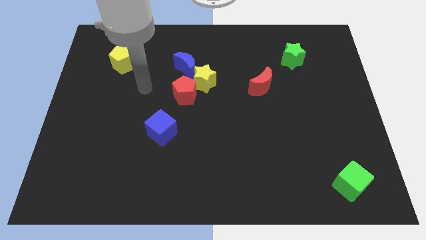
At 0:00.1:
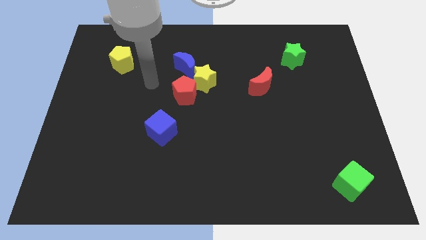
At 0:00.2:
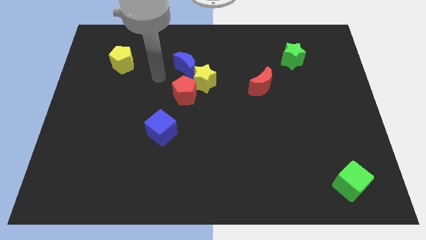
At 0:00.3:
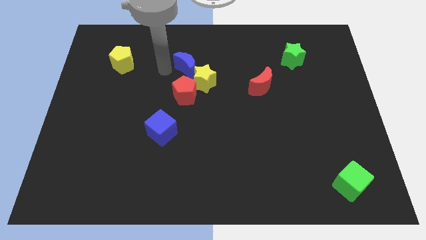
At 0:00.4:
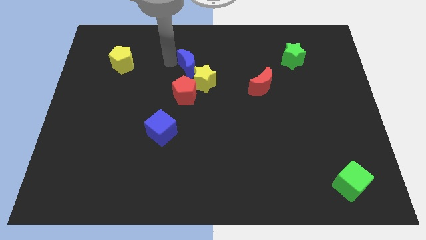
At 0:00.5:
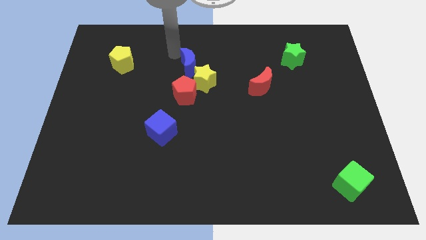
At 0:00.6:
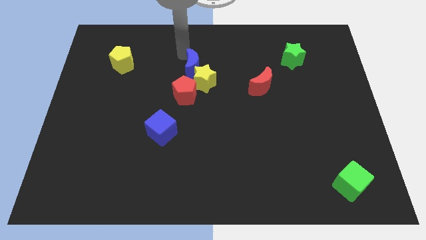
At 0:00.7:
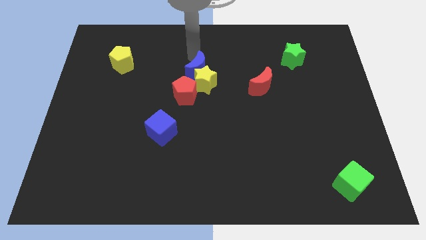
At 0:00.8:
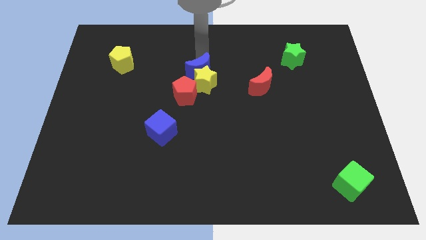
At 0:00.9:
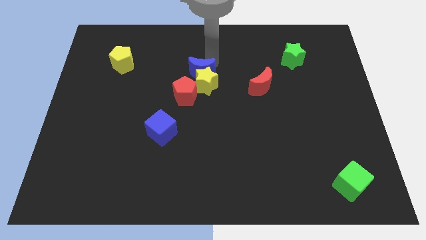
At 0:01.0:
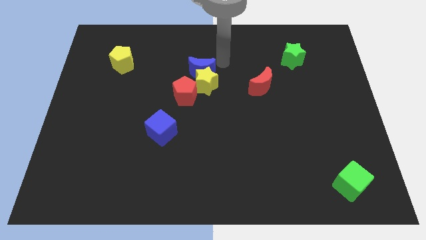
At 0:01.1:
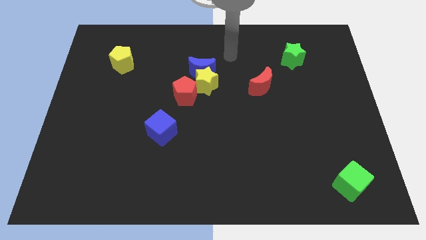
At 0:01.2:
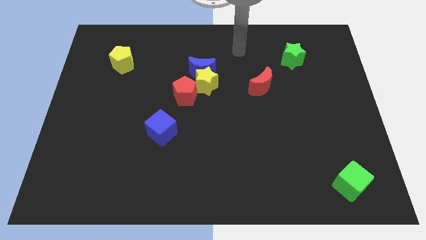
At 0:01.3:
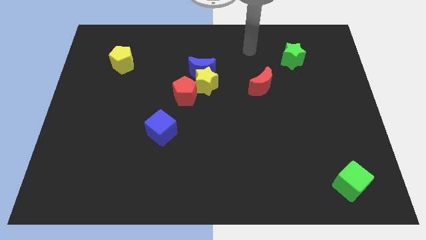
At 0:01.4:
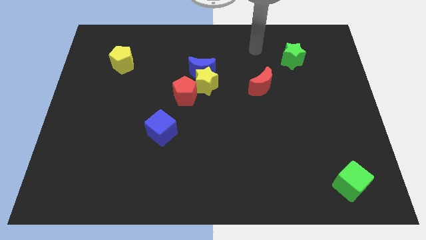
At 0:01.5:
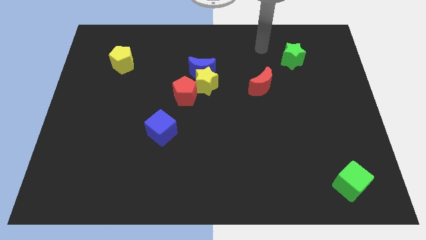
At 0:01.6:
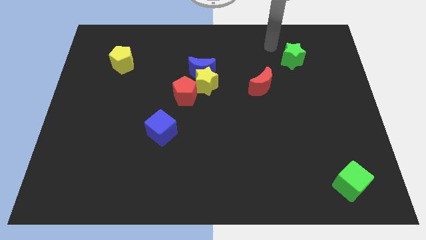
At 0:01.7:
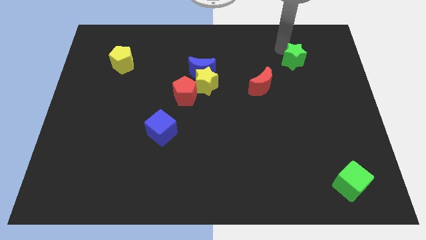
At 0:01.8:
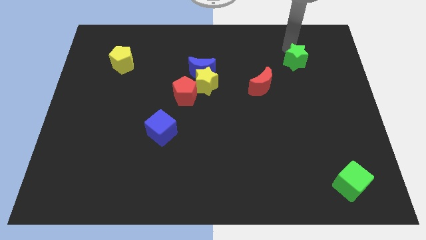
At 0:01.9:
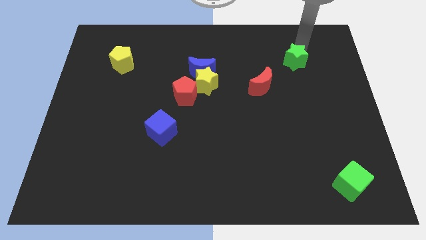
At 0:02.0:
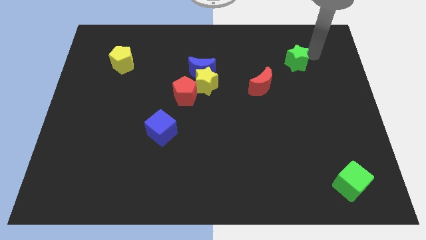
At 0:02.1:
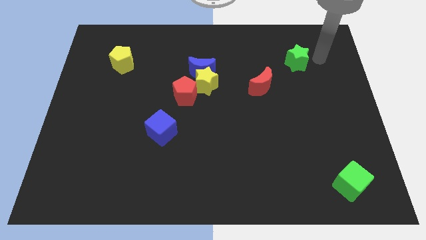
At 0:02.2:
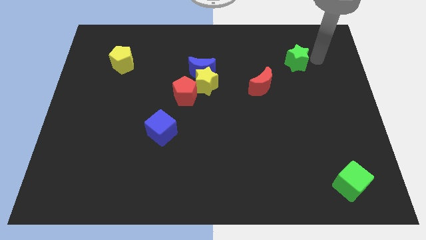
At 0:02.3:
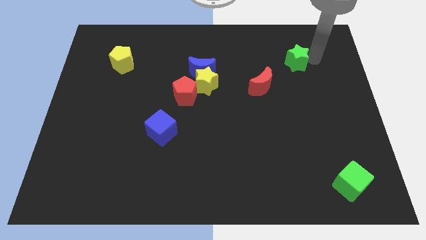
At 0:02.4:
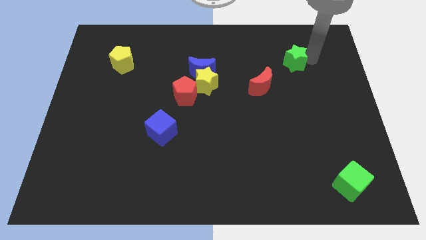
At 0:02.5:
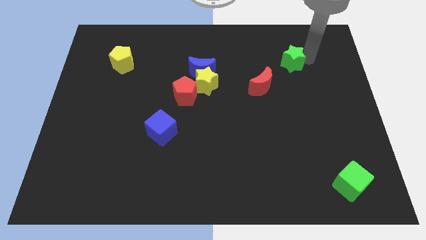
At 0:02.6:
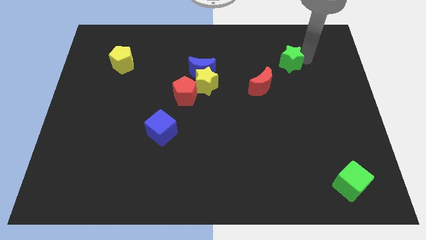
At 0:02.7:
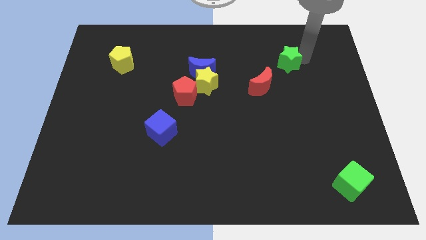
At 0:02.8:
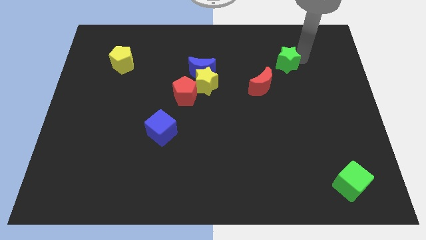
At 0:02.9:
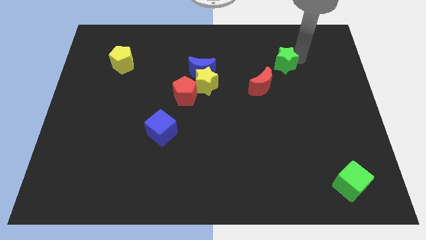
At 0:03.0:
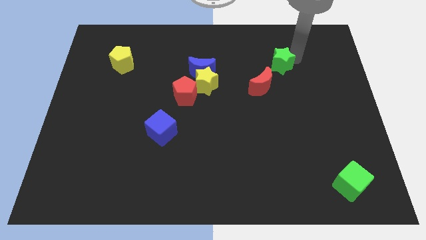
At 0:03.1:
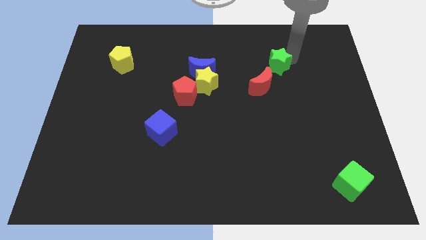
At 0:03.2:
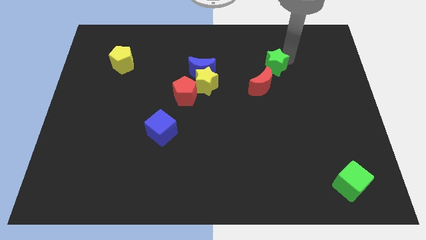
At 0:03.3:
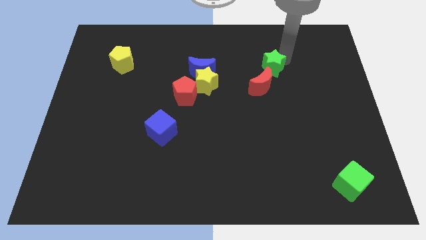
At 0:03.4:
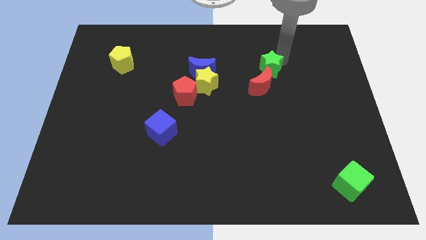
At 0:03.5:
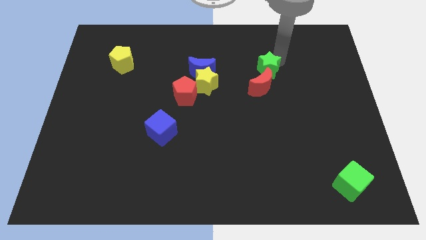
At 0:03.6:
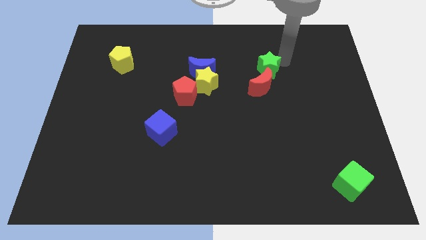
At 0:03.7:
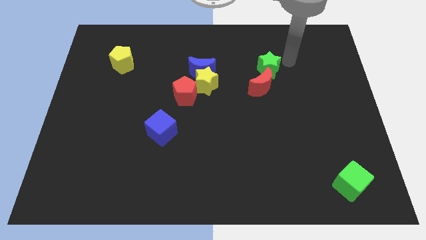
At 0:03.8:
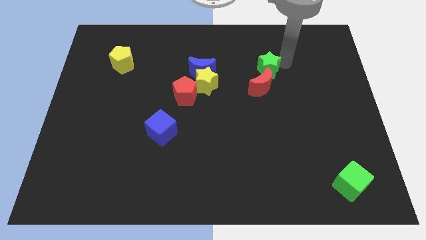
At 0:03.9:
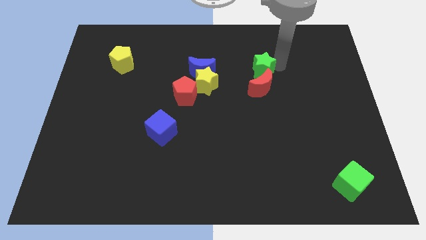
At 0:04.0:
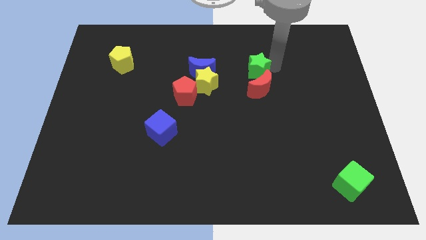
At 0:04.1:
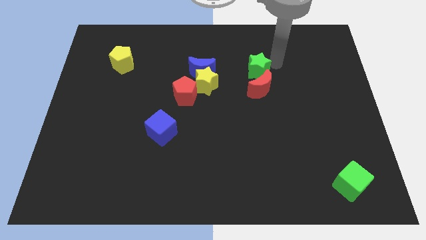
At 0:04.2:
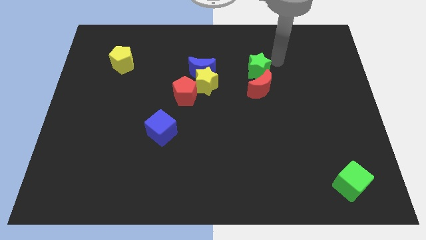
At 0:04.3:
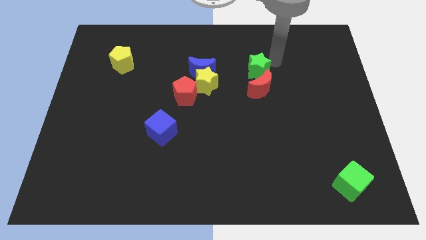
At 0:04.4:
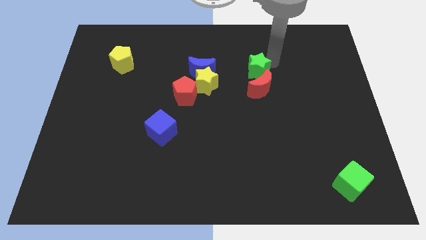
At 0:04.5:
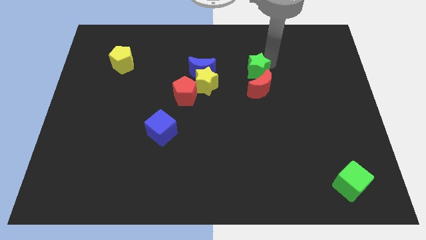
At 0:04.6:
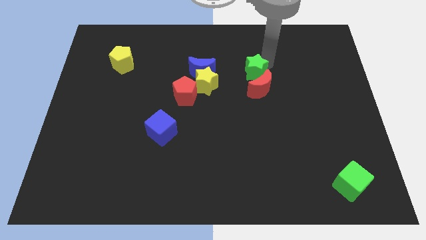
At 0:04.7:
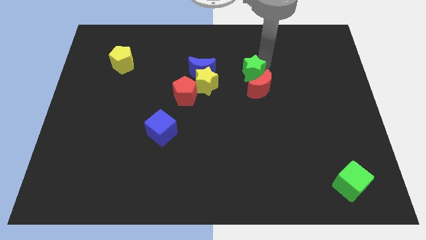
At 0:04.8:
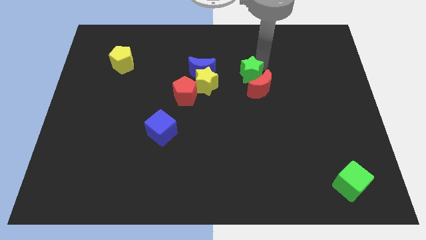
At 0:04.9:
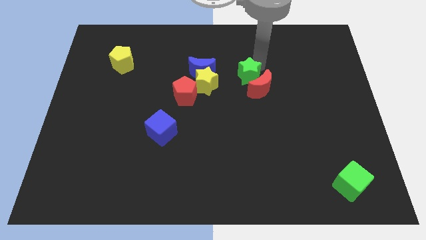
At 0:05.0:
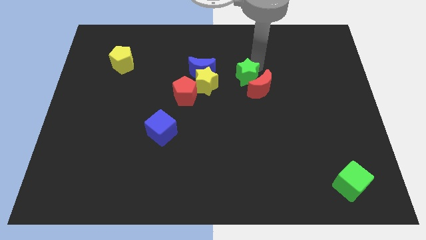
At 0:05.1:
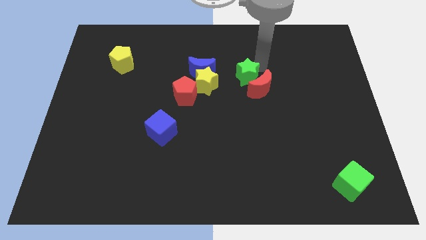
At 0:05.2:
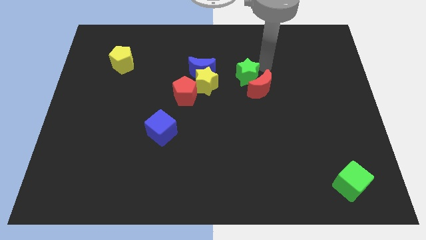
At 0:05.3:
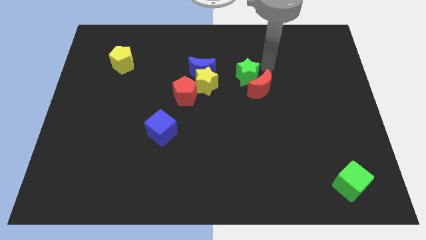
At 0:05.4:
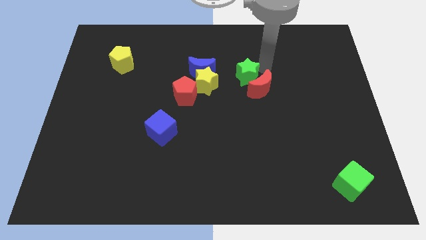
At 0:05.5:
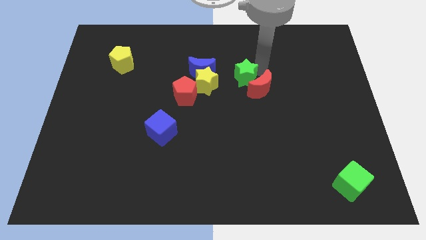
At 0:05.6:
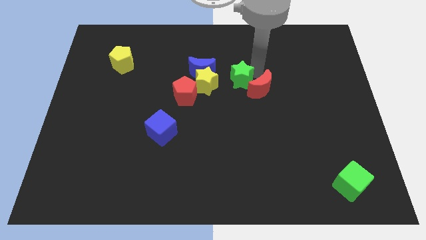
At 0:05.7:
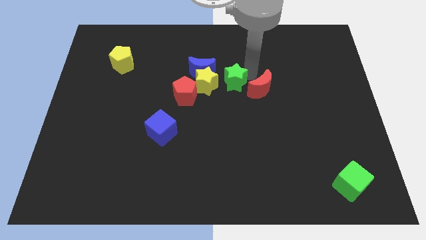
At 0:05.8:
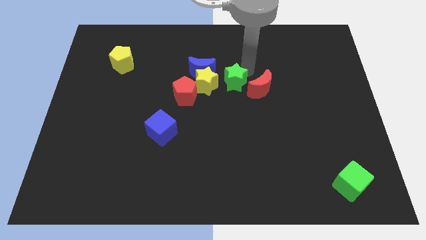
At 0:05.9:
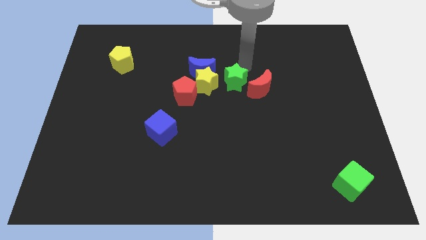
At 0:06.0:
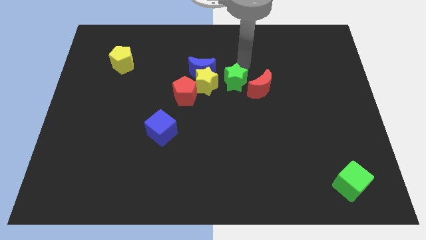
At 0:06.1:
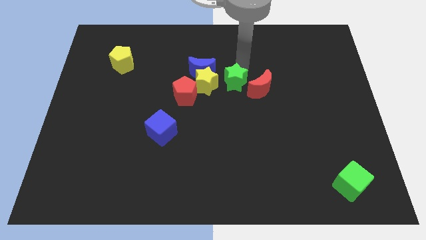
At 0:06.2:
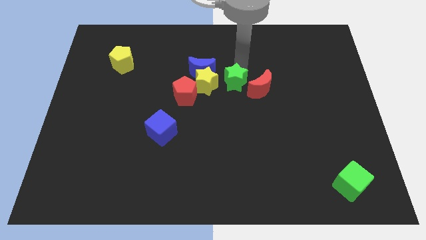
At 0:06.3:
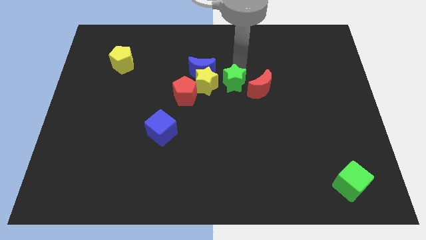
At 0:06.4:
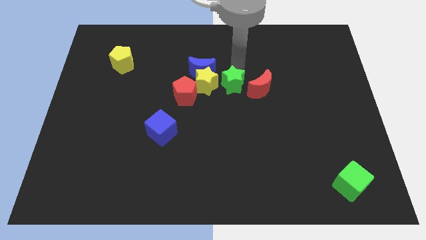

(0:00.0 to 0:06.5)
slide the green star diagonally down and to the right of the yellow star

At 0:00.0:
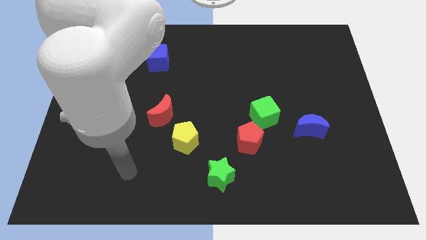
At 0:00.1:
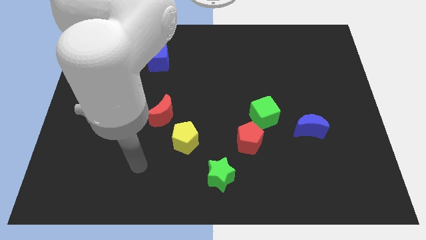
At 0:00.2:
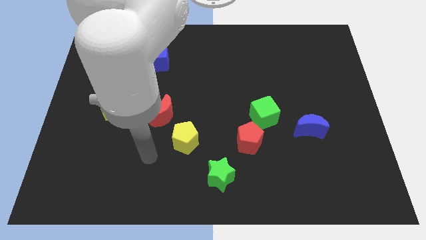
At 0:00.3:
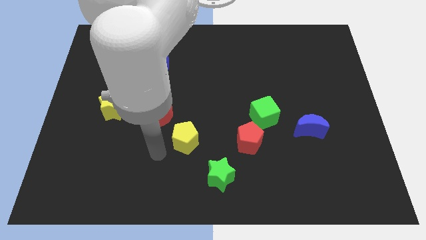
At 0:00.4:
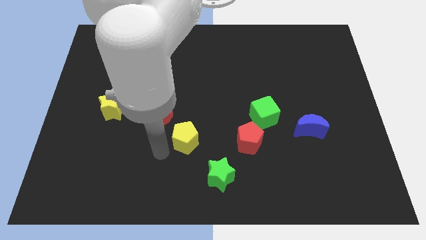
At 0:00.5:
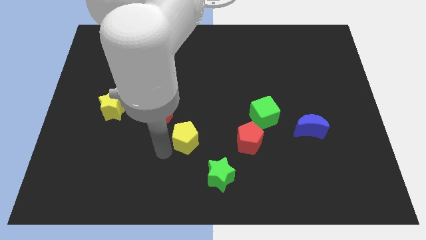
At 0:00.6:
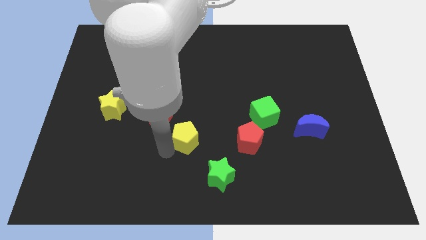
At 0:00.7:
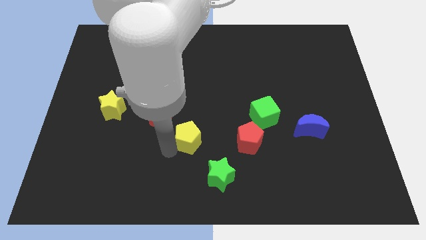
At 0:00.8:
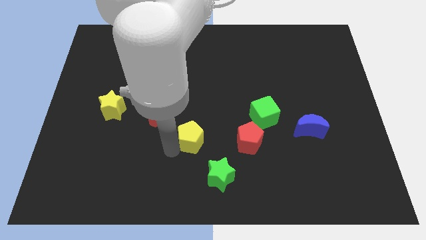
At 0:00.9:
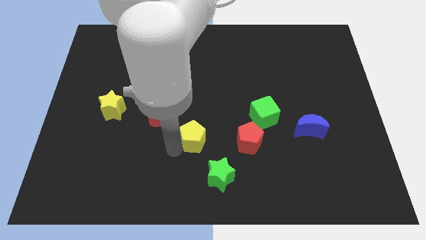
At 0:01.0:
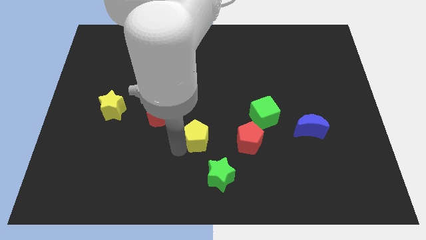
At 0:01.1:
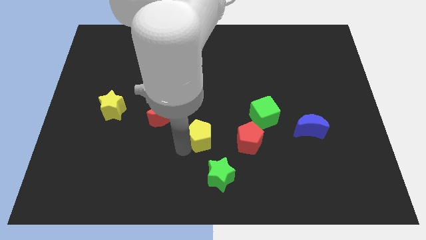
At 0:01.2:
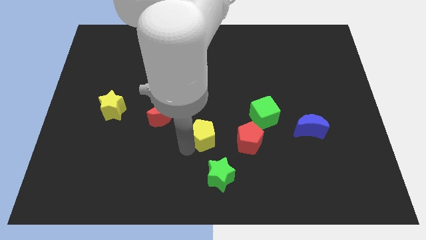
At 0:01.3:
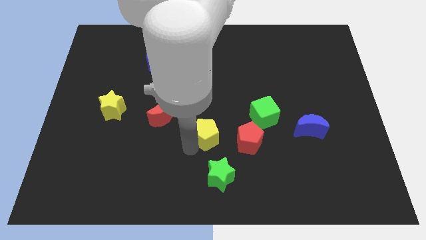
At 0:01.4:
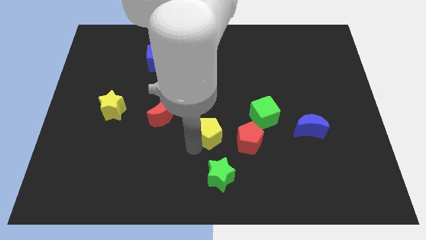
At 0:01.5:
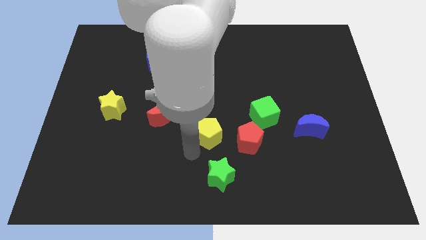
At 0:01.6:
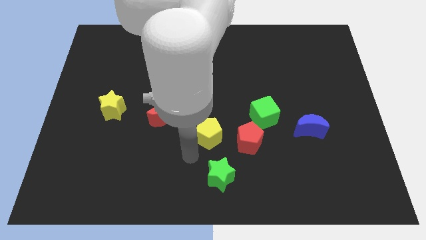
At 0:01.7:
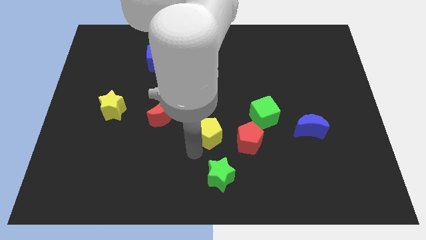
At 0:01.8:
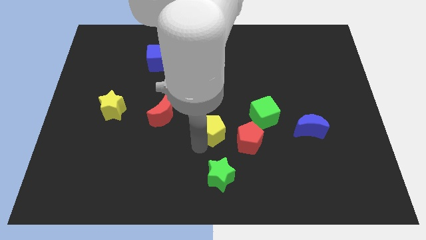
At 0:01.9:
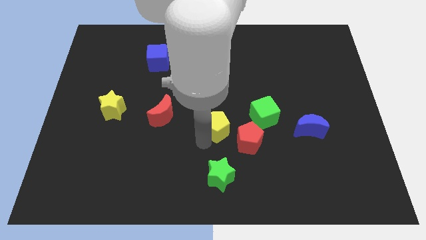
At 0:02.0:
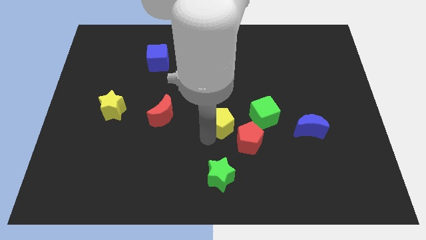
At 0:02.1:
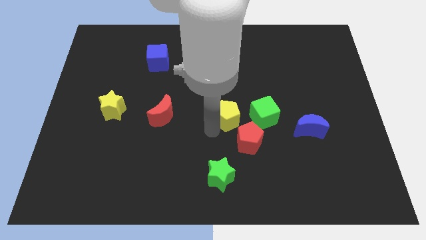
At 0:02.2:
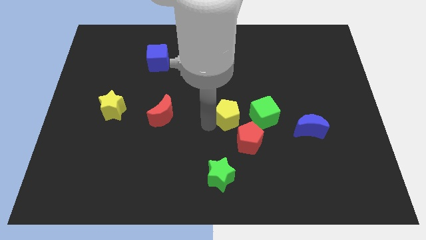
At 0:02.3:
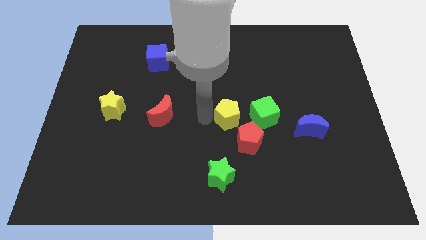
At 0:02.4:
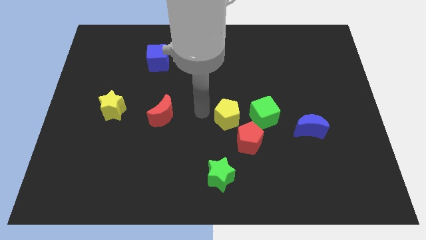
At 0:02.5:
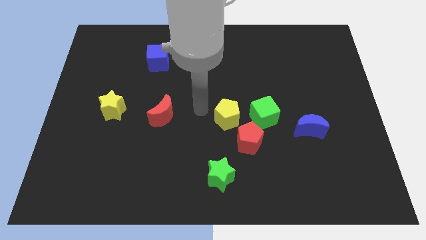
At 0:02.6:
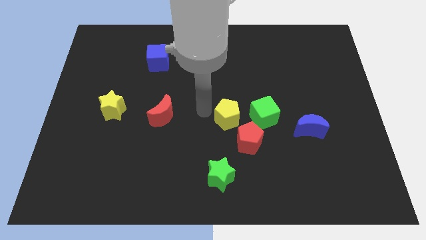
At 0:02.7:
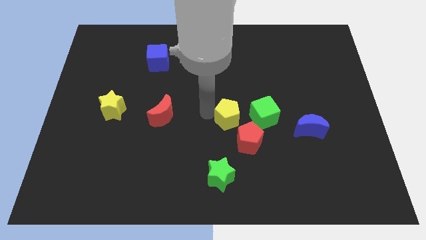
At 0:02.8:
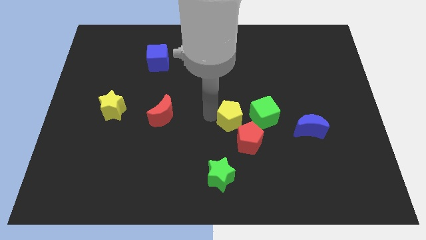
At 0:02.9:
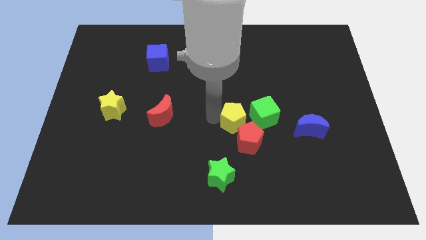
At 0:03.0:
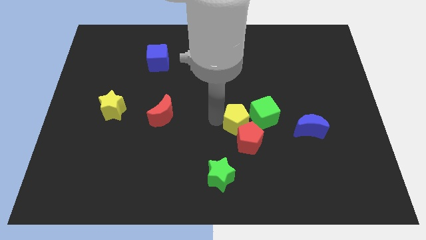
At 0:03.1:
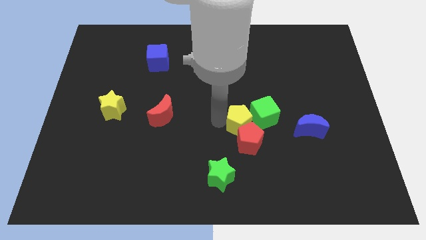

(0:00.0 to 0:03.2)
put the yellow pentagon left of the blue moon
